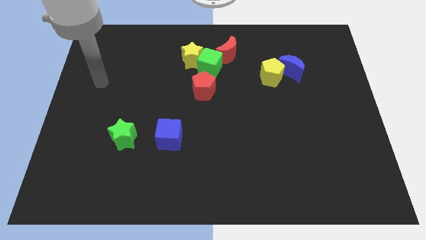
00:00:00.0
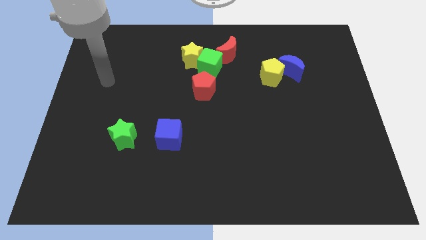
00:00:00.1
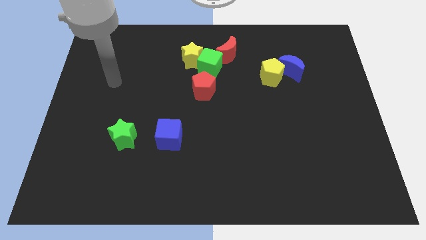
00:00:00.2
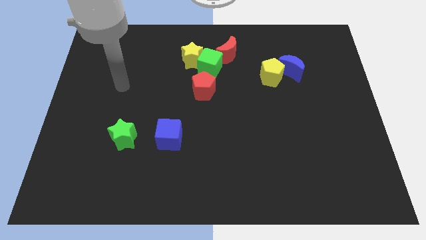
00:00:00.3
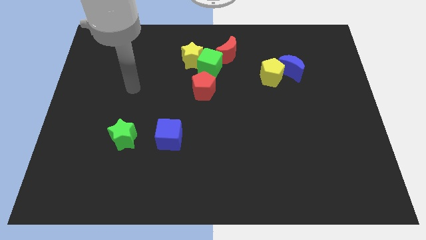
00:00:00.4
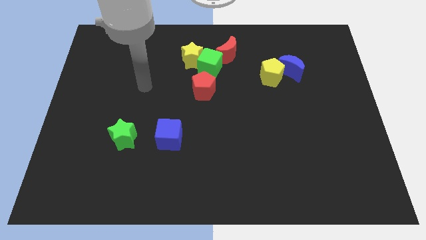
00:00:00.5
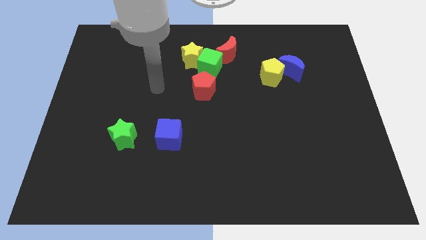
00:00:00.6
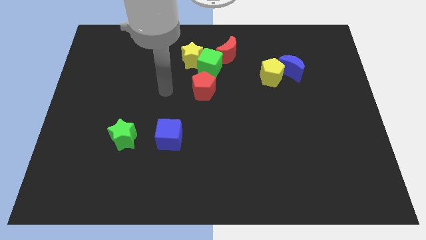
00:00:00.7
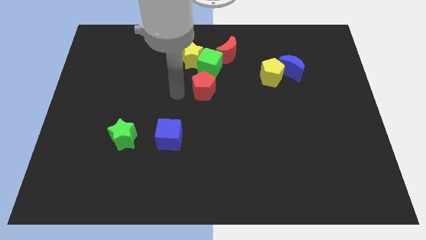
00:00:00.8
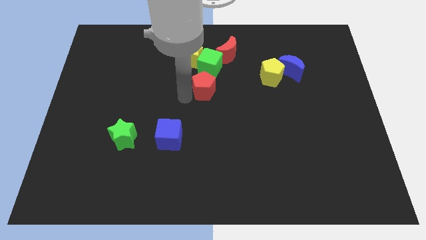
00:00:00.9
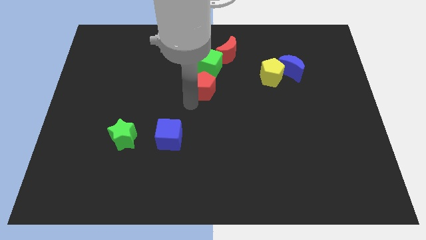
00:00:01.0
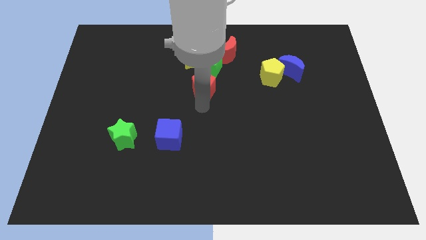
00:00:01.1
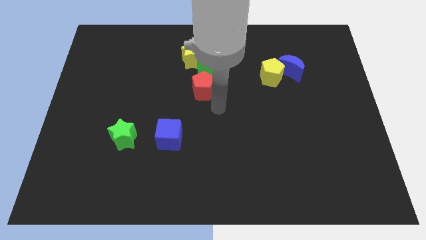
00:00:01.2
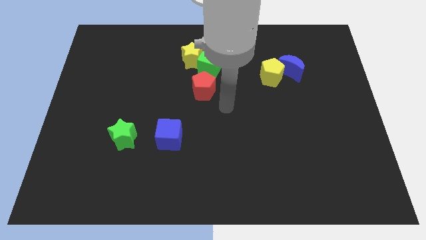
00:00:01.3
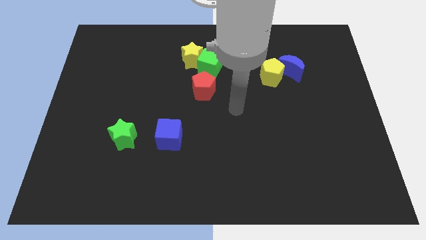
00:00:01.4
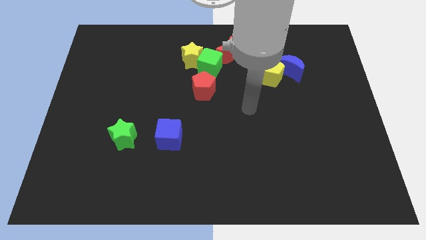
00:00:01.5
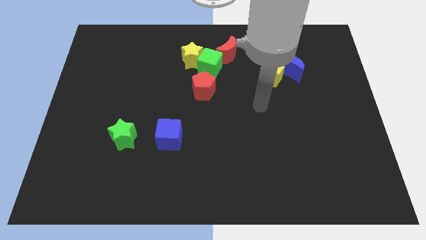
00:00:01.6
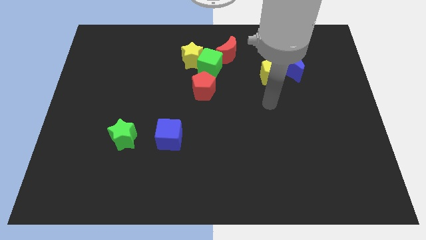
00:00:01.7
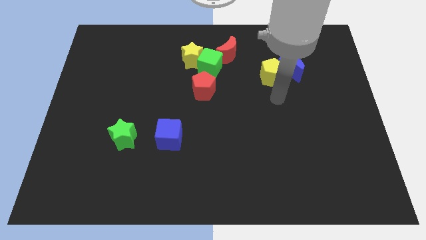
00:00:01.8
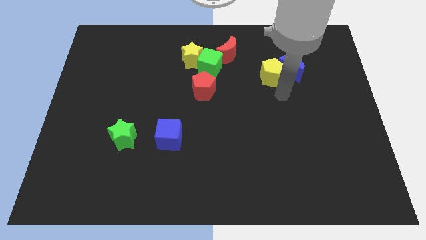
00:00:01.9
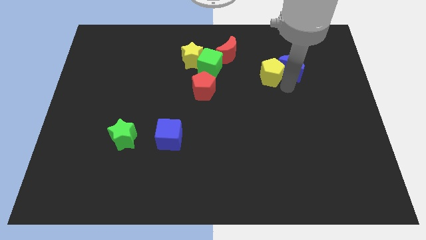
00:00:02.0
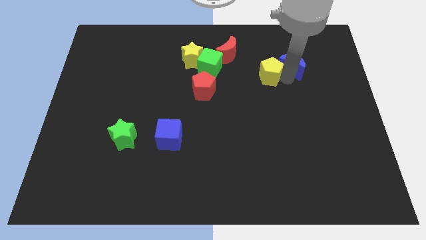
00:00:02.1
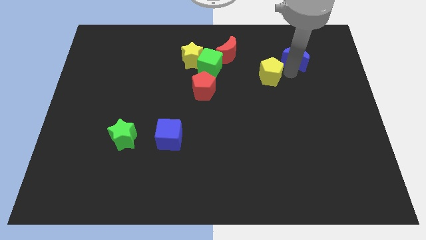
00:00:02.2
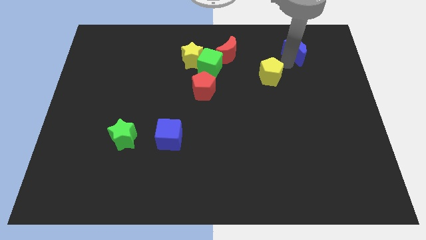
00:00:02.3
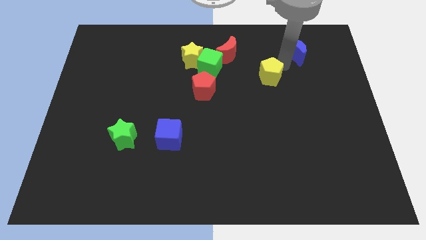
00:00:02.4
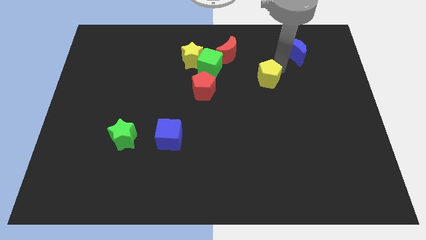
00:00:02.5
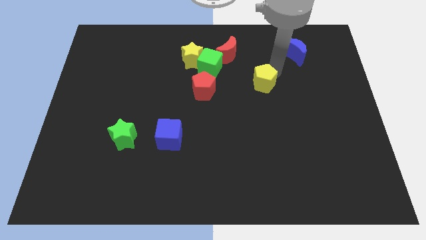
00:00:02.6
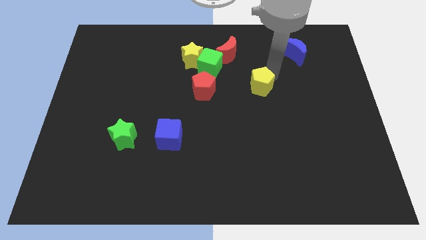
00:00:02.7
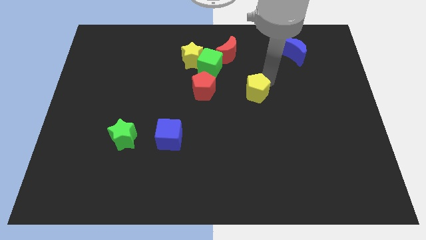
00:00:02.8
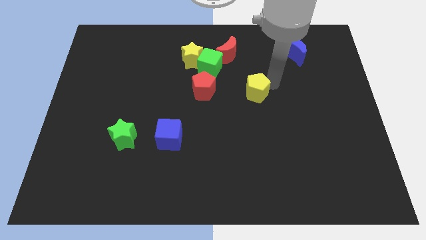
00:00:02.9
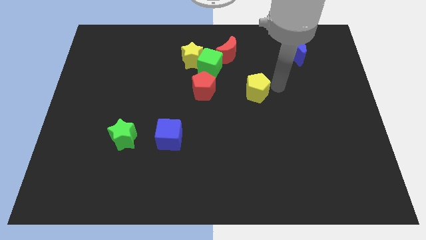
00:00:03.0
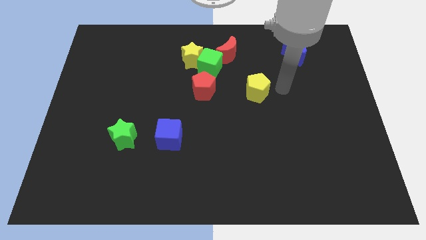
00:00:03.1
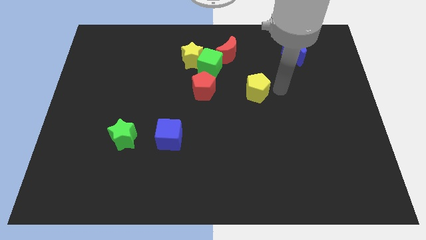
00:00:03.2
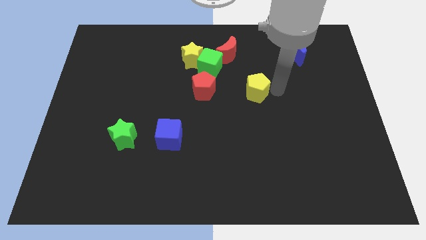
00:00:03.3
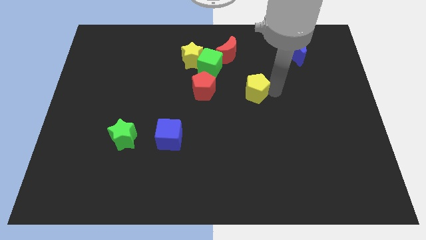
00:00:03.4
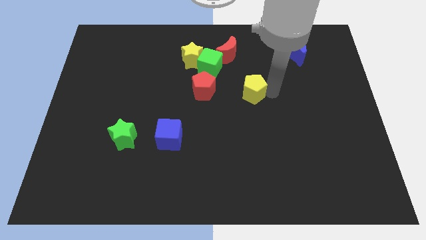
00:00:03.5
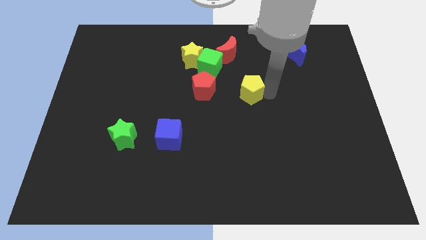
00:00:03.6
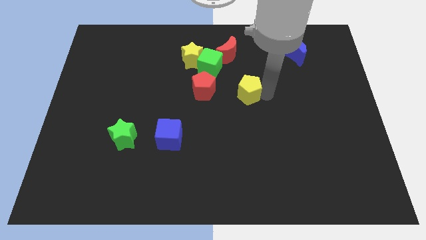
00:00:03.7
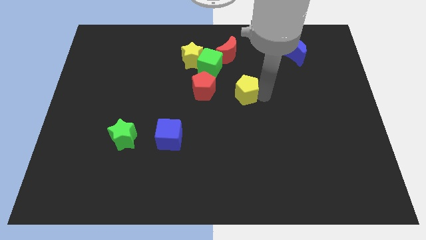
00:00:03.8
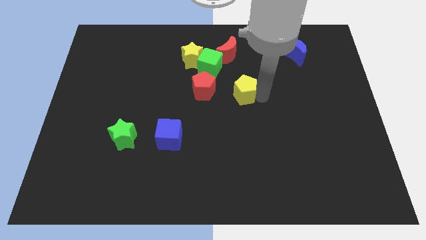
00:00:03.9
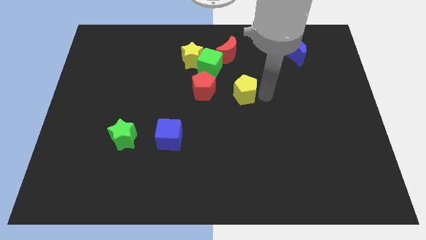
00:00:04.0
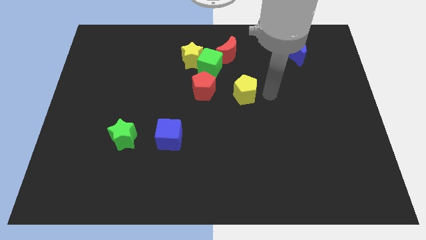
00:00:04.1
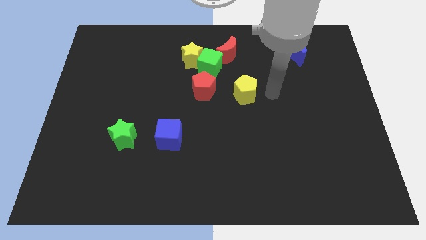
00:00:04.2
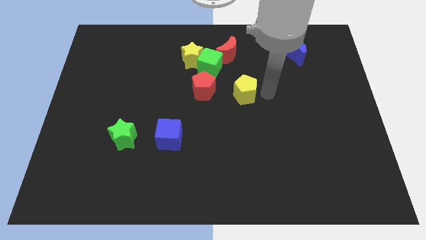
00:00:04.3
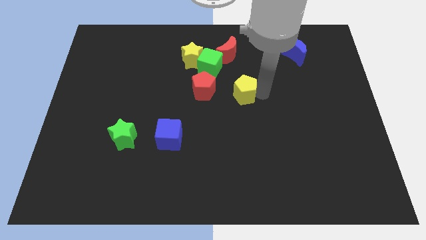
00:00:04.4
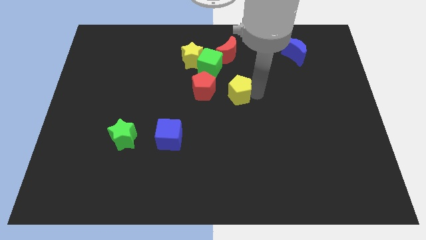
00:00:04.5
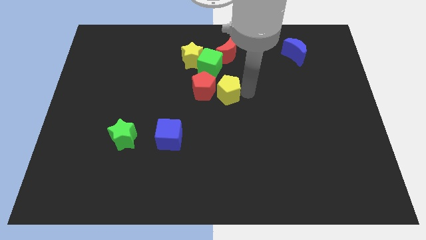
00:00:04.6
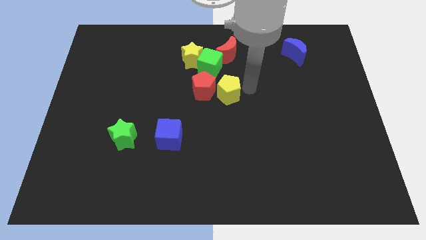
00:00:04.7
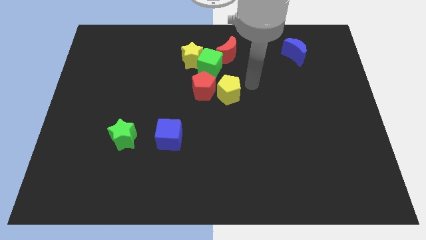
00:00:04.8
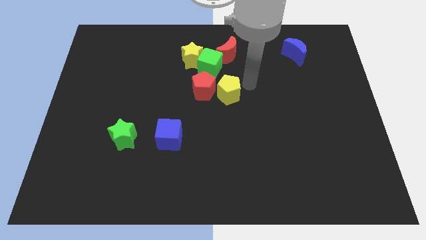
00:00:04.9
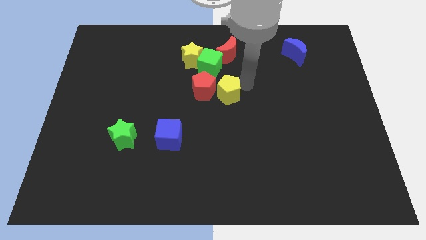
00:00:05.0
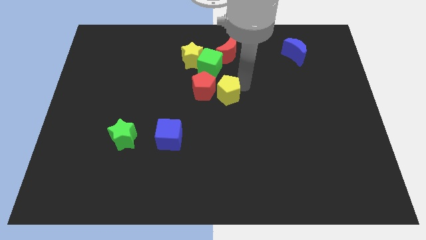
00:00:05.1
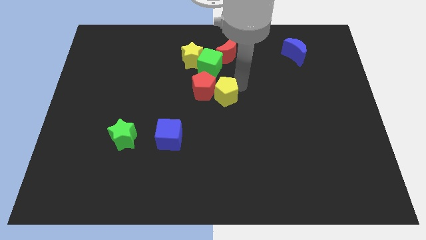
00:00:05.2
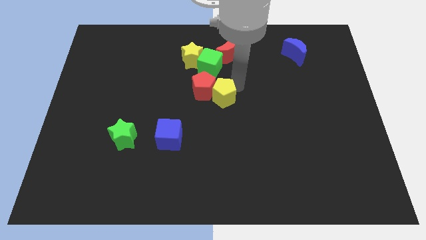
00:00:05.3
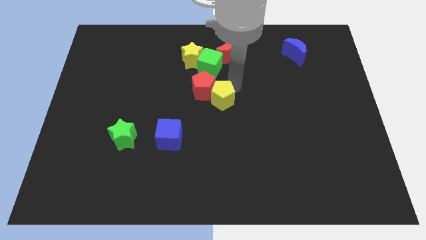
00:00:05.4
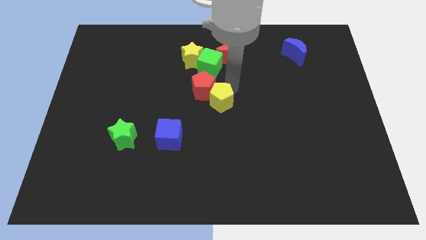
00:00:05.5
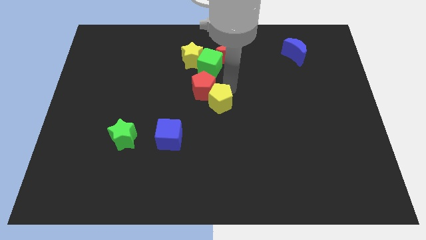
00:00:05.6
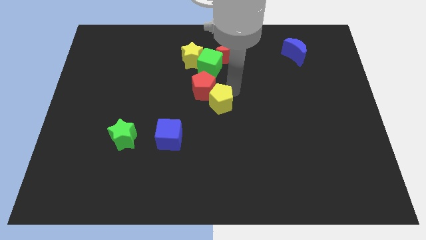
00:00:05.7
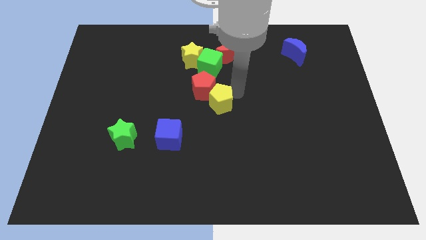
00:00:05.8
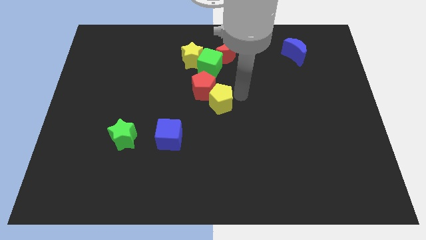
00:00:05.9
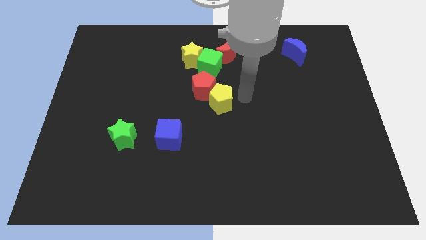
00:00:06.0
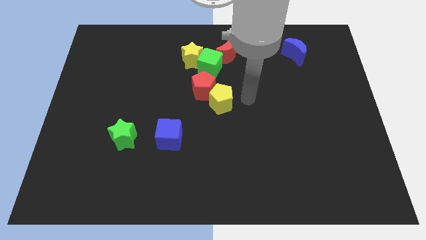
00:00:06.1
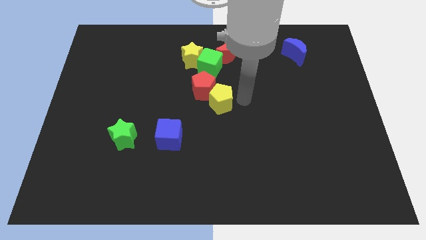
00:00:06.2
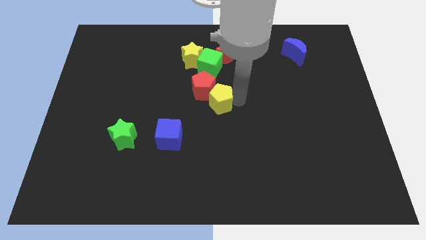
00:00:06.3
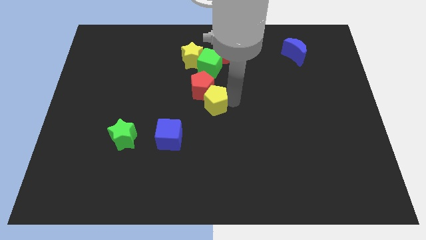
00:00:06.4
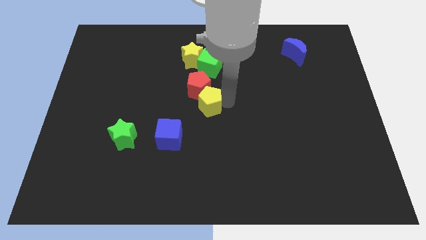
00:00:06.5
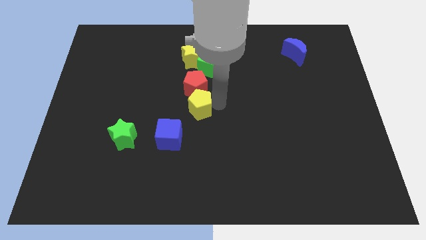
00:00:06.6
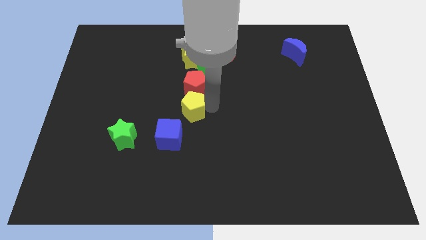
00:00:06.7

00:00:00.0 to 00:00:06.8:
slide the yellow pentagon to the bottom left of the red pentagon

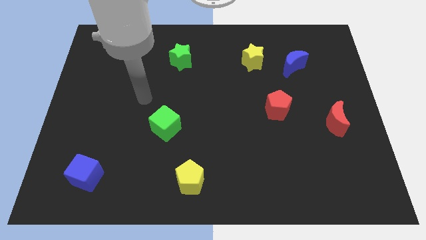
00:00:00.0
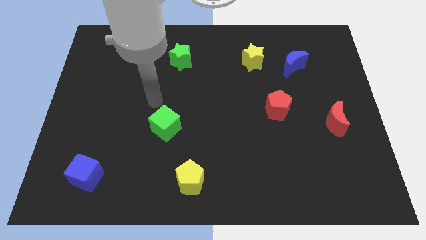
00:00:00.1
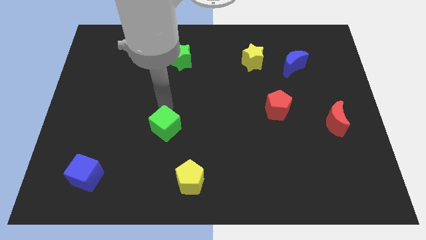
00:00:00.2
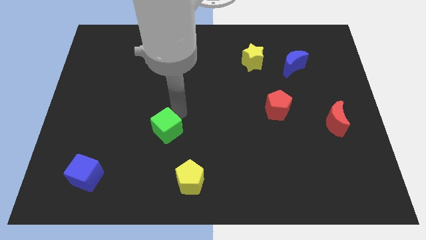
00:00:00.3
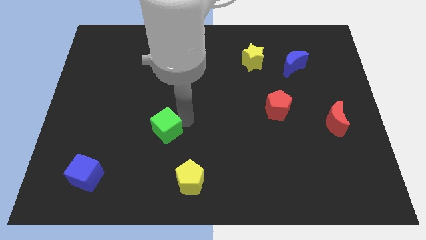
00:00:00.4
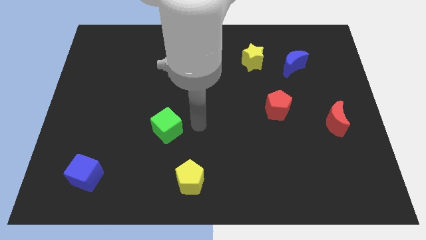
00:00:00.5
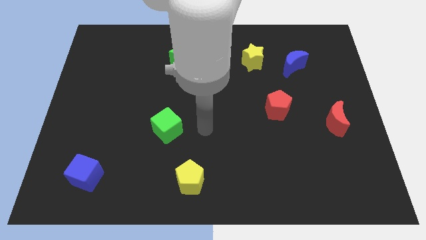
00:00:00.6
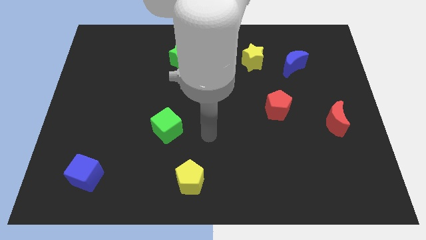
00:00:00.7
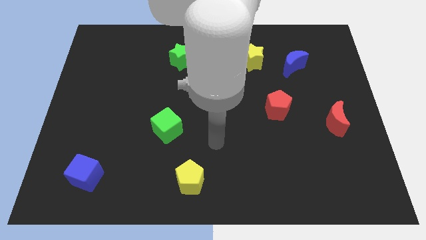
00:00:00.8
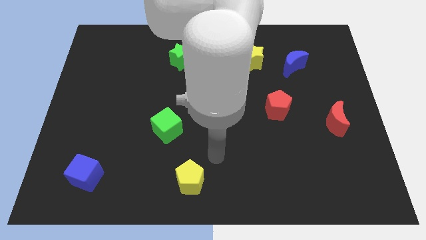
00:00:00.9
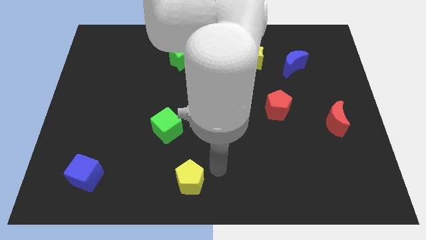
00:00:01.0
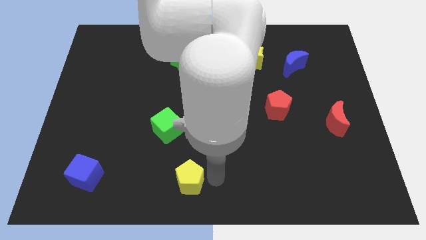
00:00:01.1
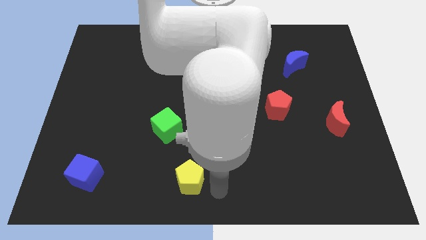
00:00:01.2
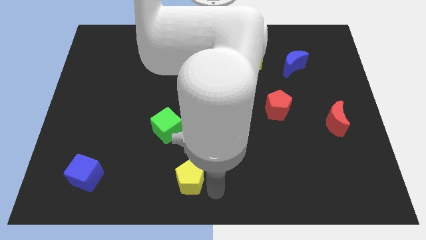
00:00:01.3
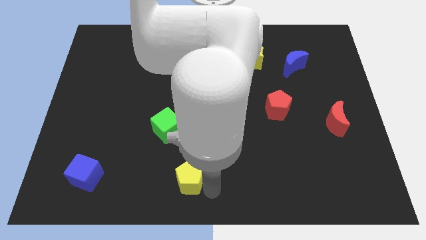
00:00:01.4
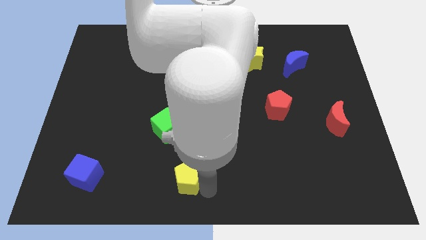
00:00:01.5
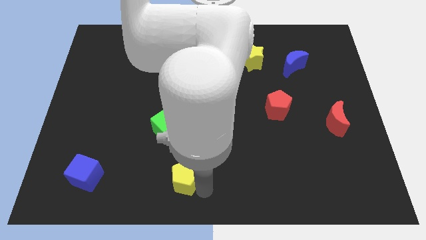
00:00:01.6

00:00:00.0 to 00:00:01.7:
put the yellow pentagon to the bottom of the green cube
